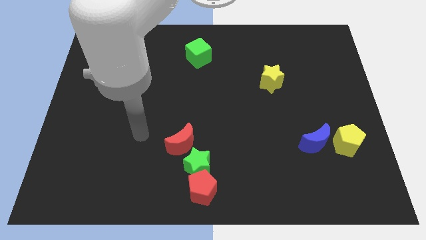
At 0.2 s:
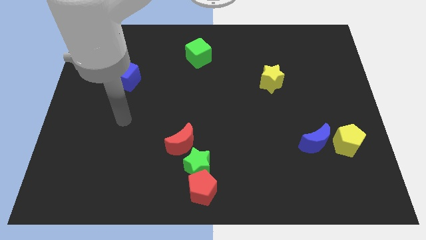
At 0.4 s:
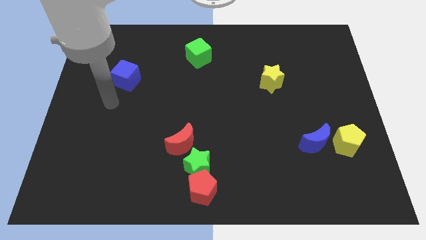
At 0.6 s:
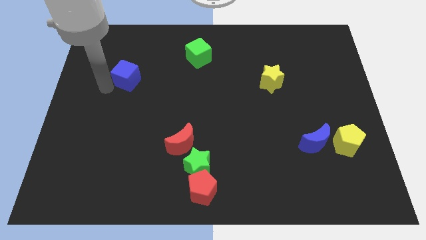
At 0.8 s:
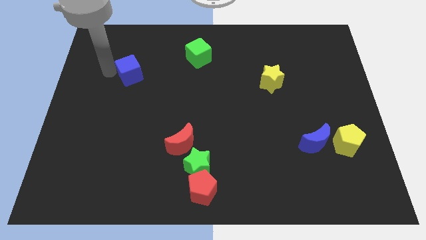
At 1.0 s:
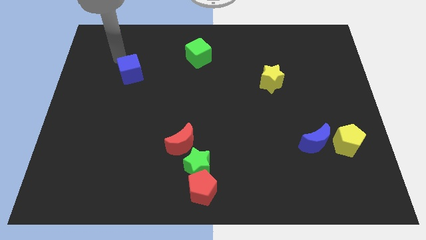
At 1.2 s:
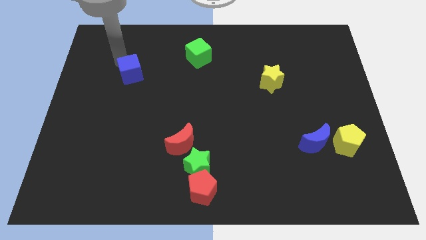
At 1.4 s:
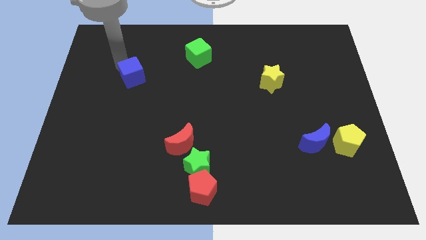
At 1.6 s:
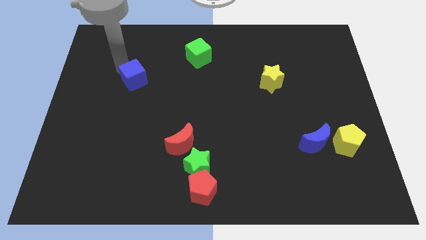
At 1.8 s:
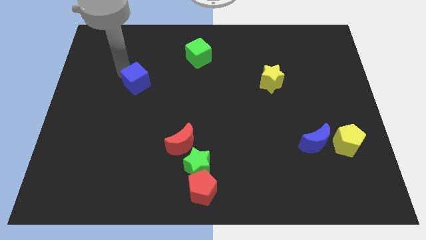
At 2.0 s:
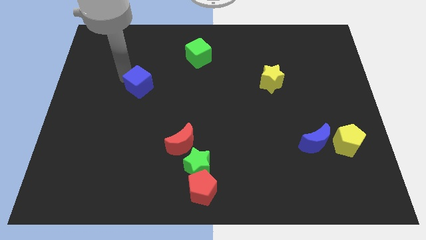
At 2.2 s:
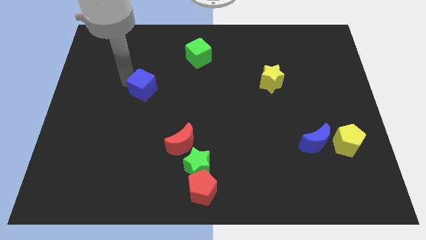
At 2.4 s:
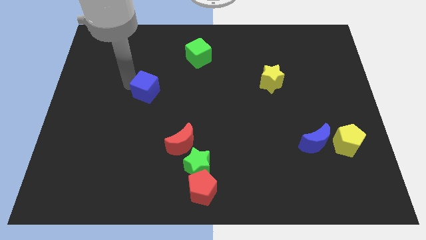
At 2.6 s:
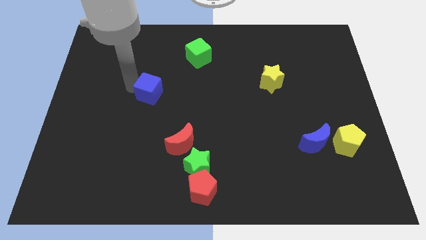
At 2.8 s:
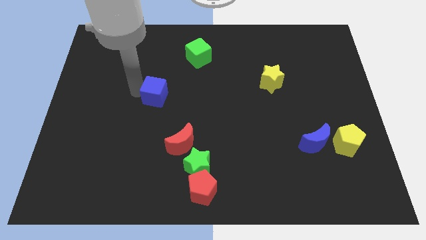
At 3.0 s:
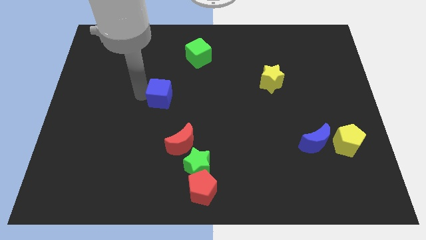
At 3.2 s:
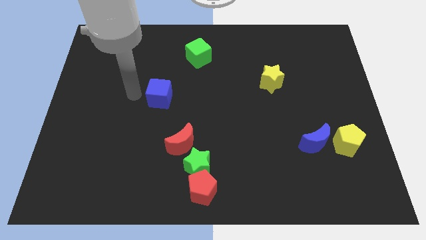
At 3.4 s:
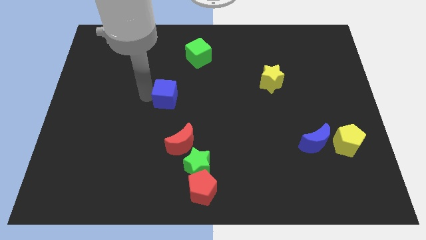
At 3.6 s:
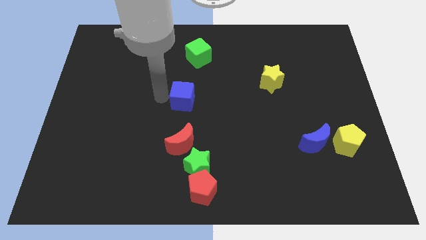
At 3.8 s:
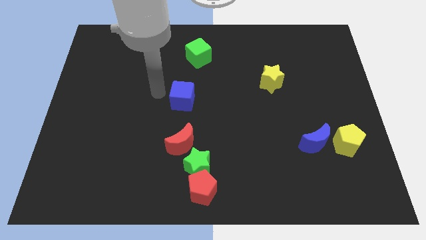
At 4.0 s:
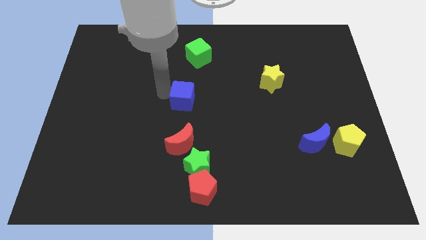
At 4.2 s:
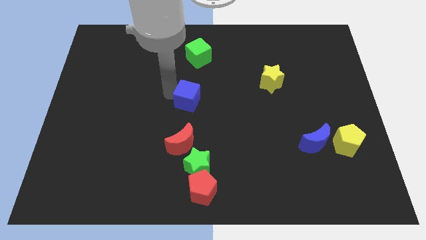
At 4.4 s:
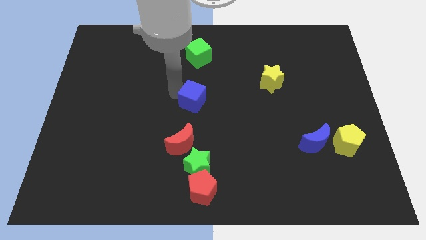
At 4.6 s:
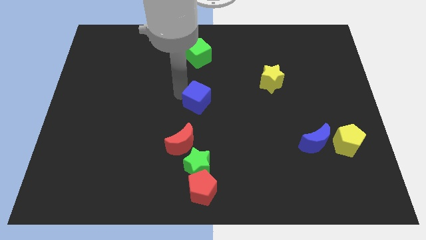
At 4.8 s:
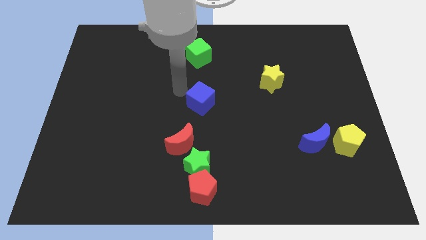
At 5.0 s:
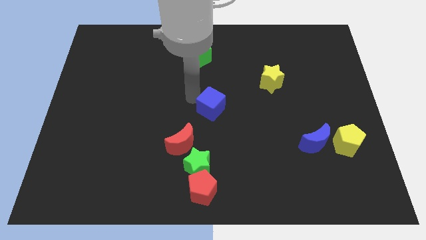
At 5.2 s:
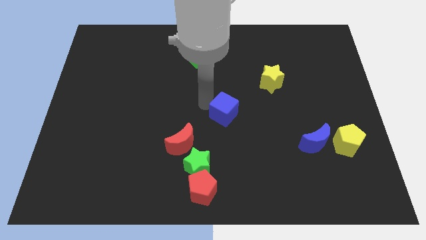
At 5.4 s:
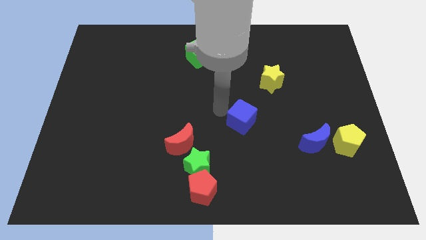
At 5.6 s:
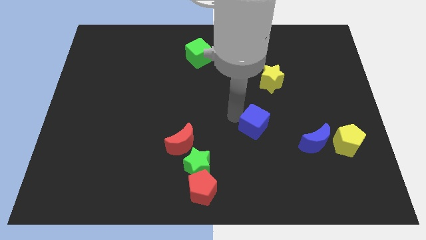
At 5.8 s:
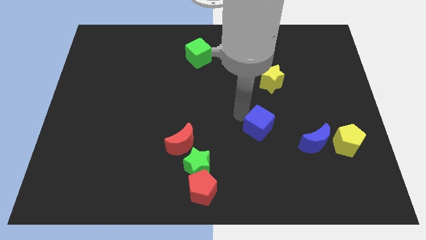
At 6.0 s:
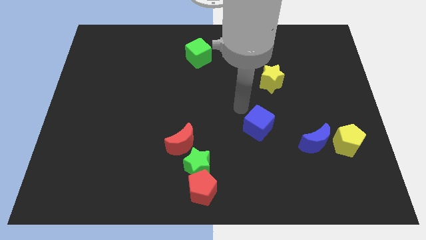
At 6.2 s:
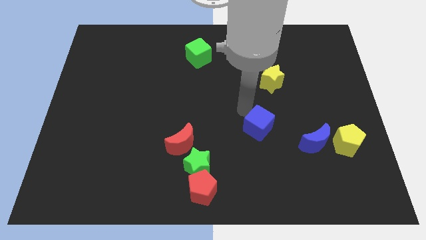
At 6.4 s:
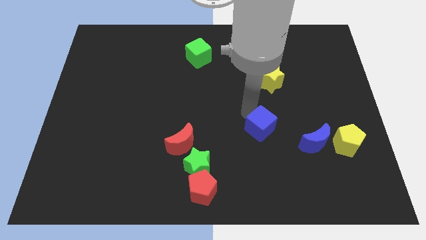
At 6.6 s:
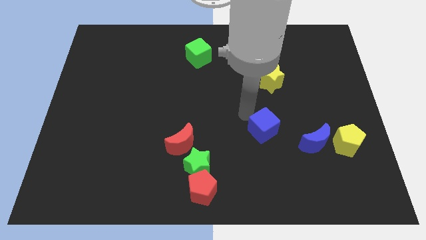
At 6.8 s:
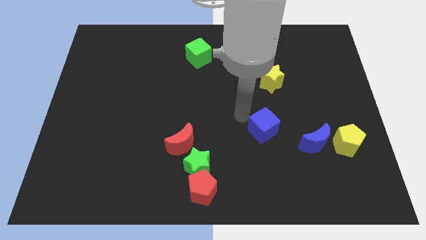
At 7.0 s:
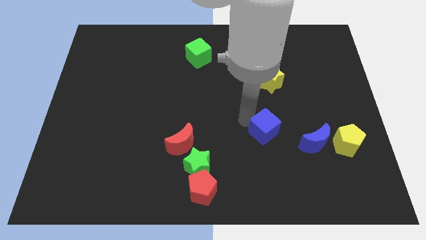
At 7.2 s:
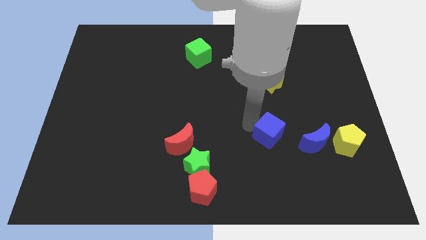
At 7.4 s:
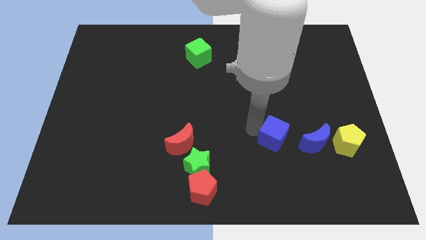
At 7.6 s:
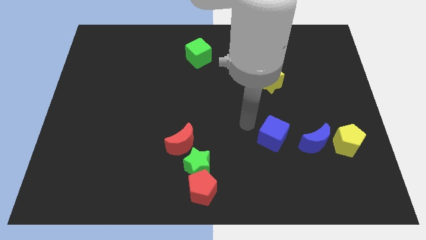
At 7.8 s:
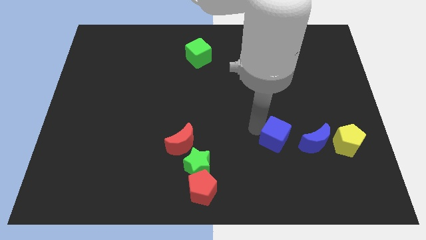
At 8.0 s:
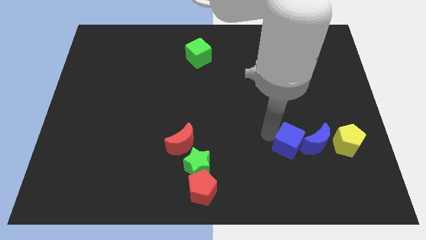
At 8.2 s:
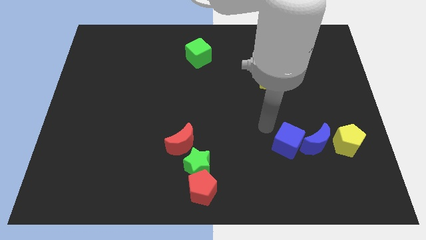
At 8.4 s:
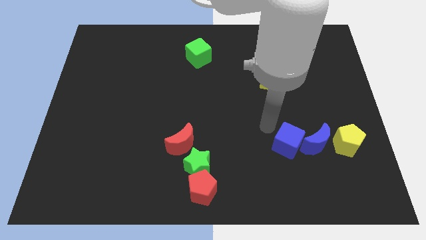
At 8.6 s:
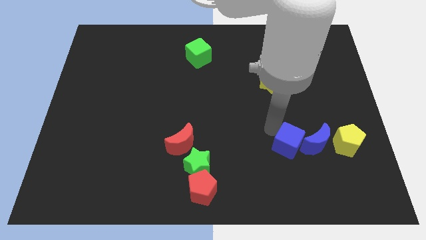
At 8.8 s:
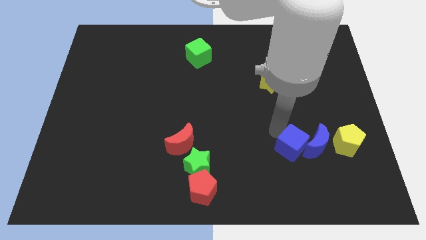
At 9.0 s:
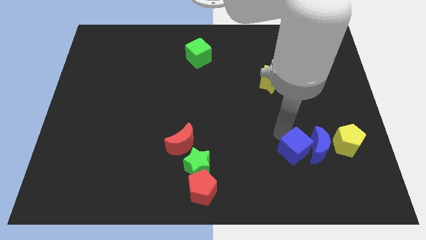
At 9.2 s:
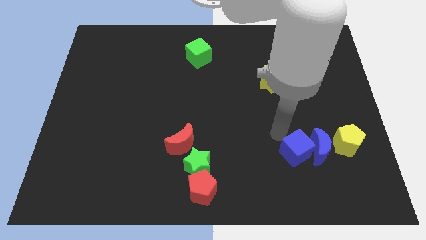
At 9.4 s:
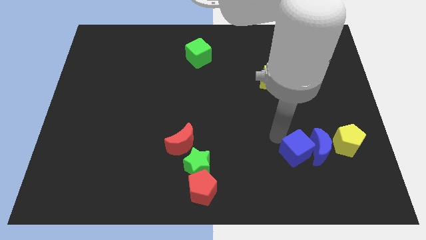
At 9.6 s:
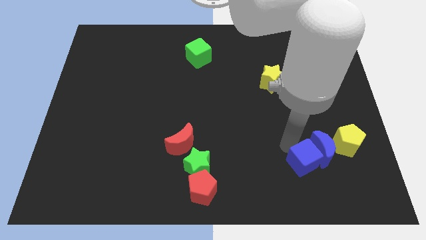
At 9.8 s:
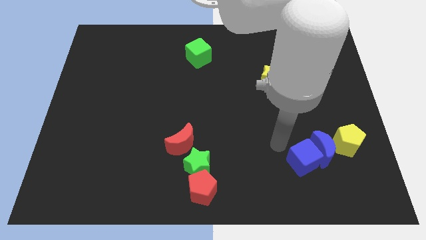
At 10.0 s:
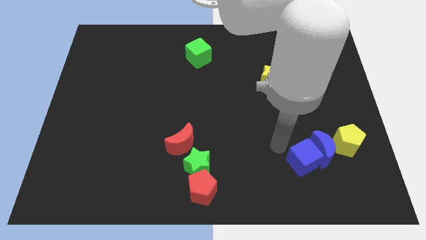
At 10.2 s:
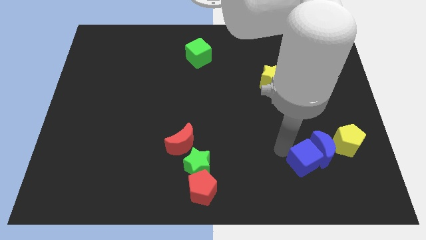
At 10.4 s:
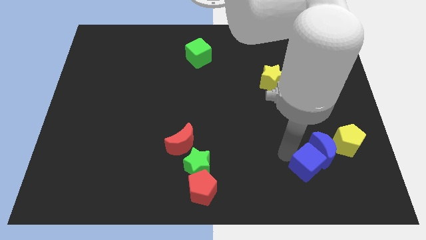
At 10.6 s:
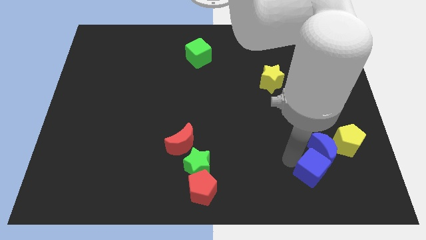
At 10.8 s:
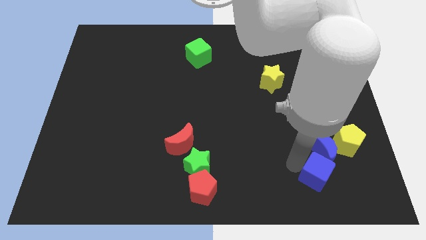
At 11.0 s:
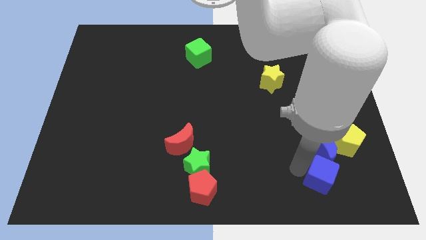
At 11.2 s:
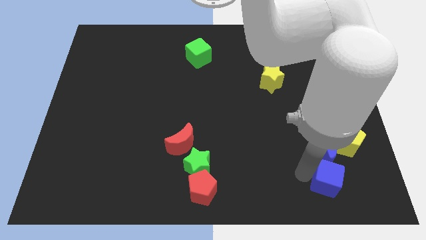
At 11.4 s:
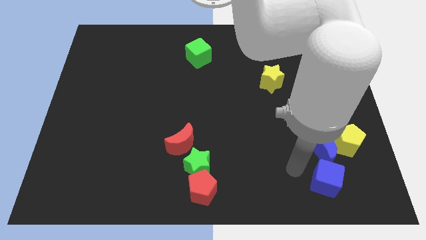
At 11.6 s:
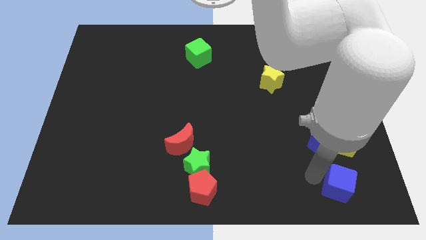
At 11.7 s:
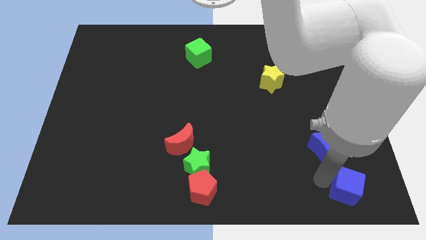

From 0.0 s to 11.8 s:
push the blue cube to the lower right corner
